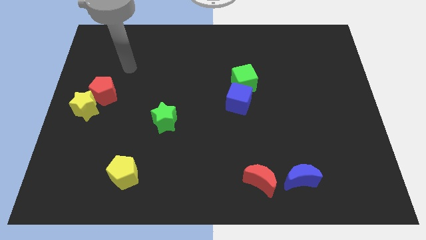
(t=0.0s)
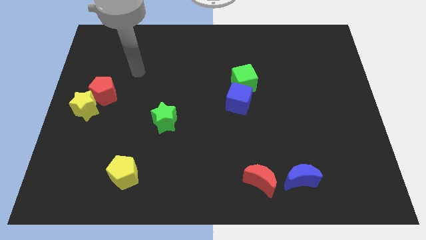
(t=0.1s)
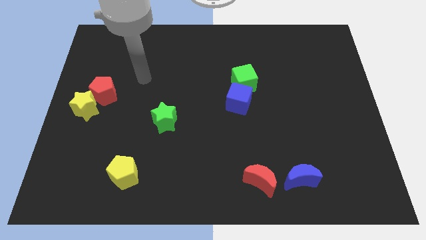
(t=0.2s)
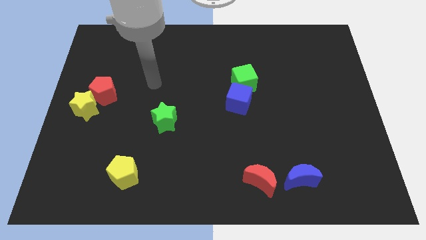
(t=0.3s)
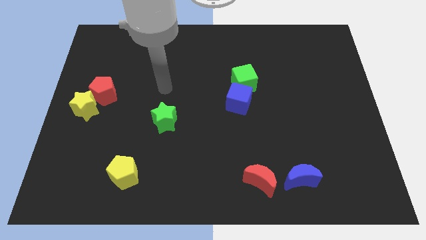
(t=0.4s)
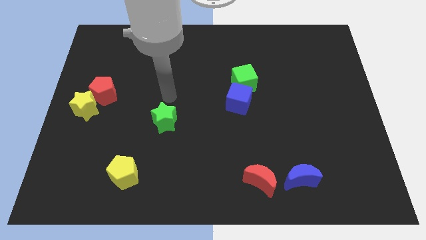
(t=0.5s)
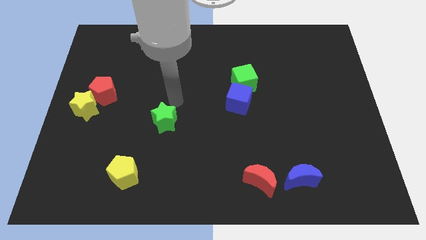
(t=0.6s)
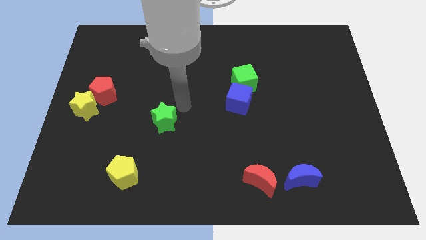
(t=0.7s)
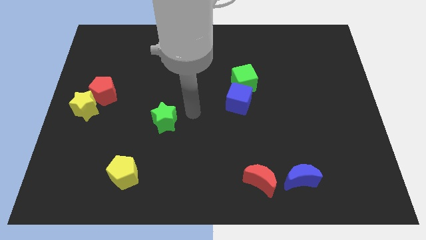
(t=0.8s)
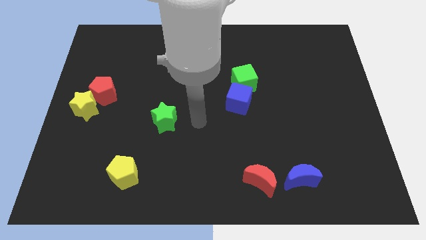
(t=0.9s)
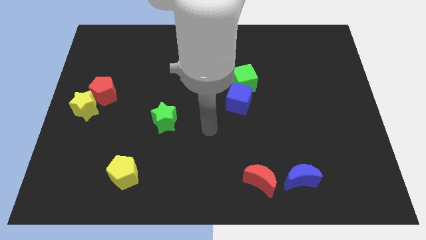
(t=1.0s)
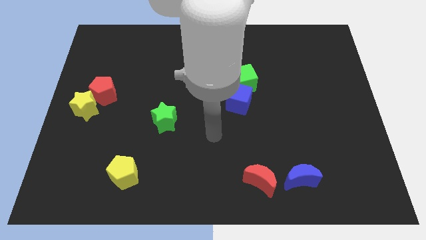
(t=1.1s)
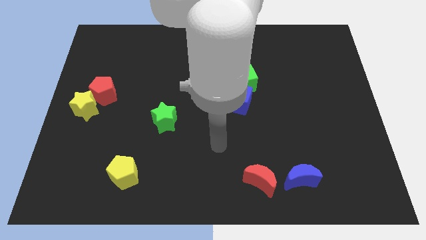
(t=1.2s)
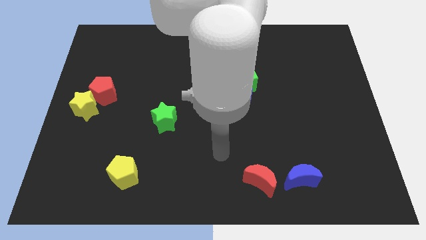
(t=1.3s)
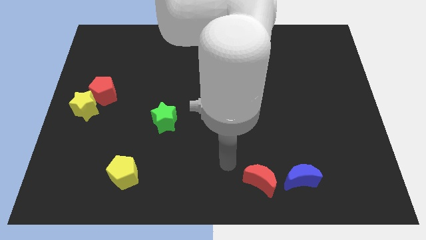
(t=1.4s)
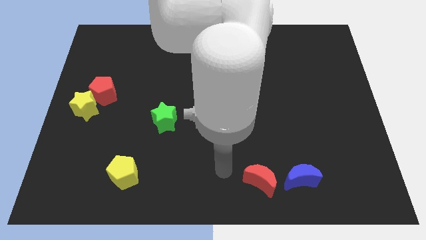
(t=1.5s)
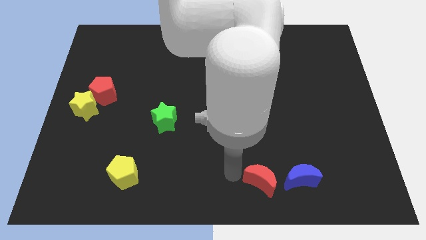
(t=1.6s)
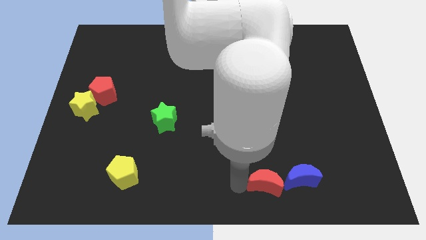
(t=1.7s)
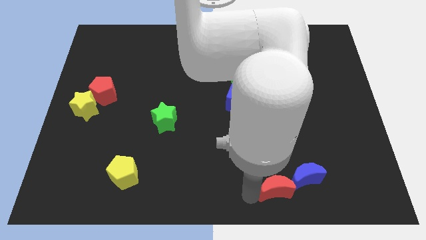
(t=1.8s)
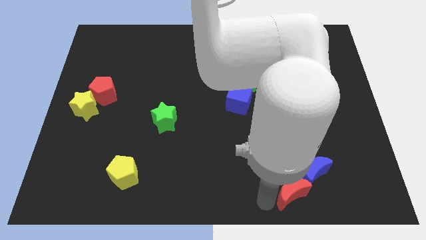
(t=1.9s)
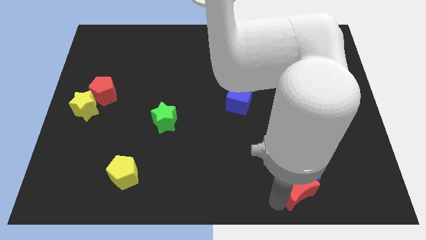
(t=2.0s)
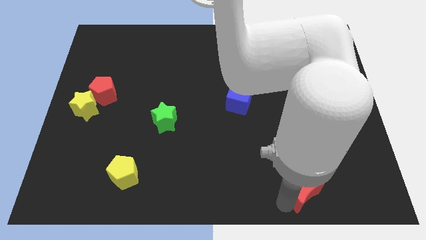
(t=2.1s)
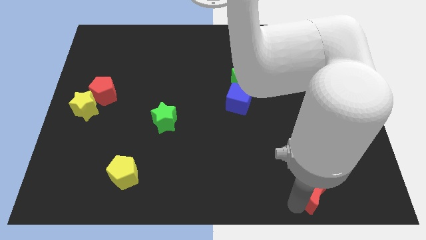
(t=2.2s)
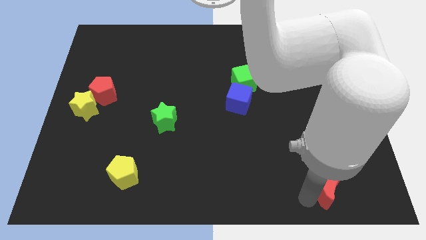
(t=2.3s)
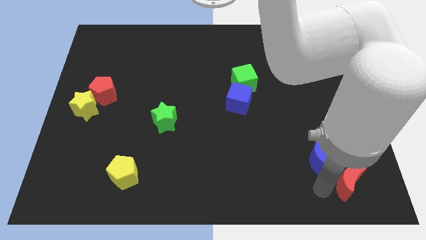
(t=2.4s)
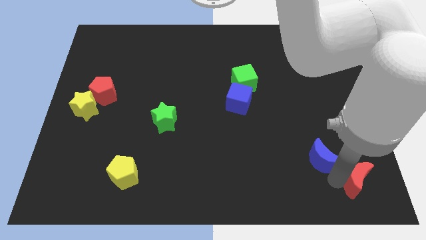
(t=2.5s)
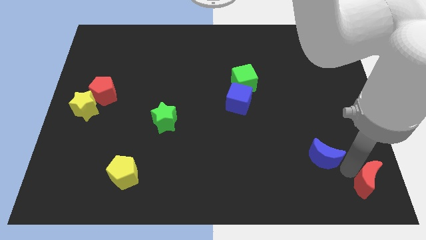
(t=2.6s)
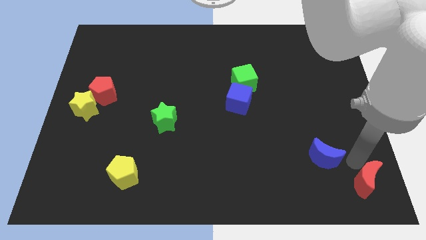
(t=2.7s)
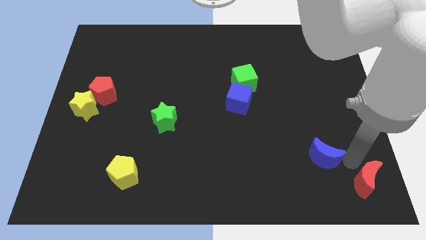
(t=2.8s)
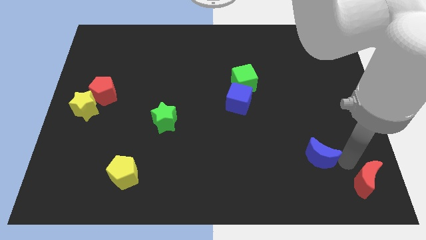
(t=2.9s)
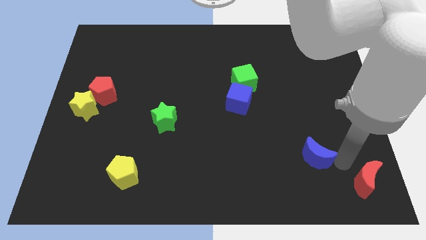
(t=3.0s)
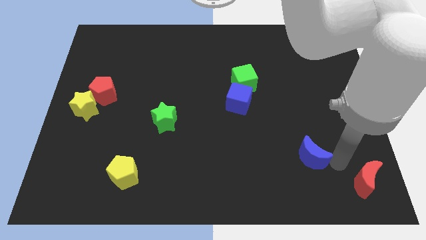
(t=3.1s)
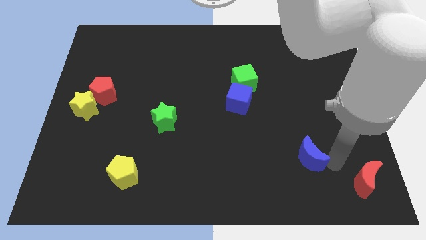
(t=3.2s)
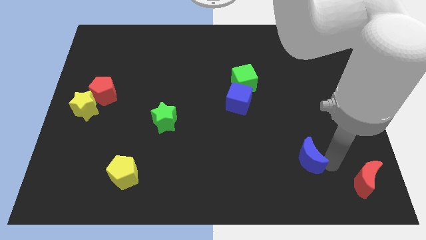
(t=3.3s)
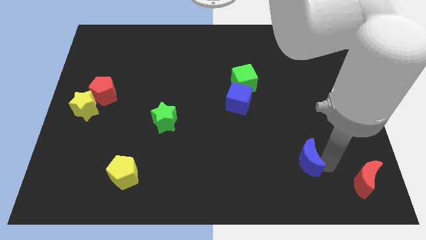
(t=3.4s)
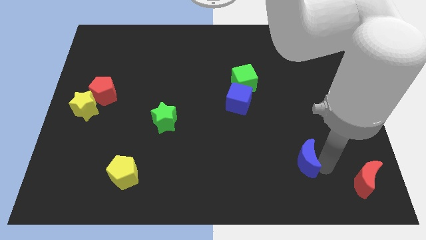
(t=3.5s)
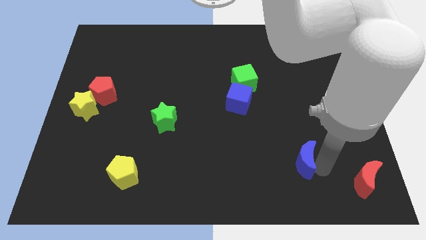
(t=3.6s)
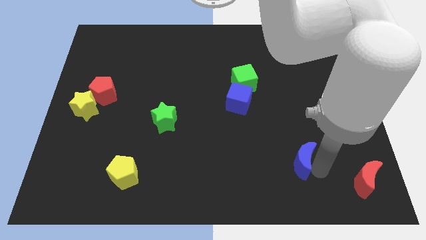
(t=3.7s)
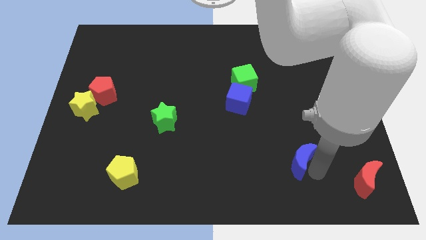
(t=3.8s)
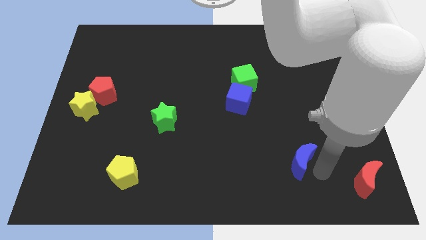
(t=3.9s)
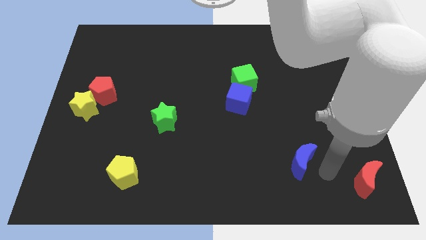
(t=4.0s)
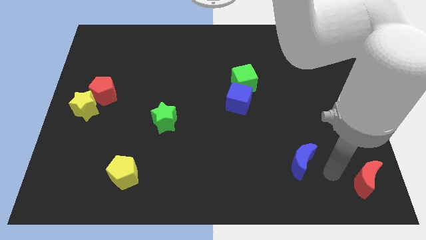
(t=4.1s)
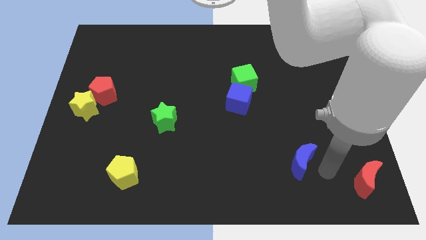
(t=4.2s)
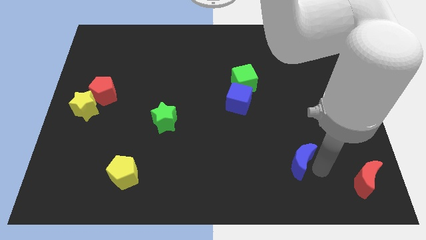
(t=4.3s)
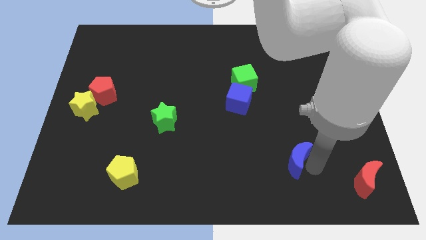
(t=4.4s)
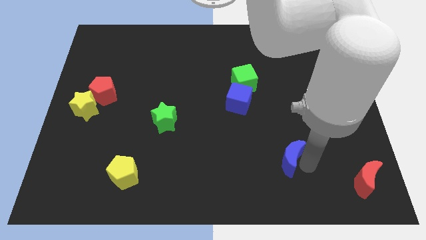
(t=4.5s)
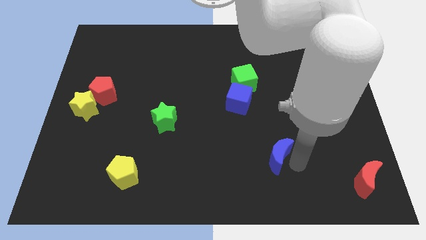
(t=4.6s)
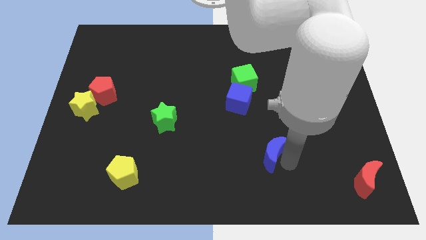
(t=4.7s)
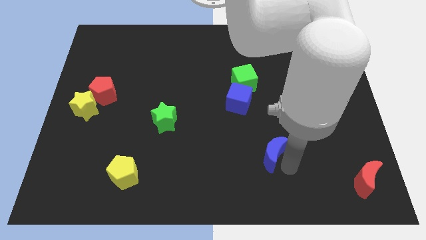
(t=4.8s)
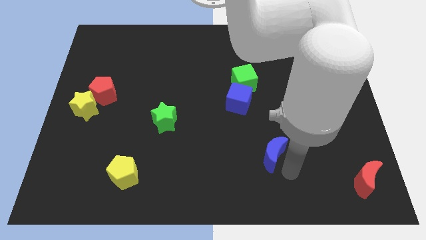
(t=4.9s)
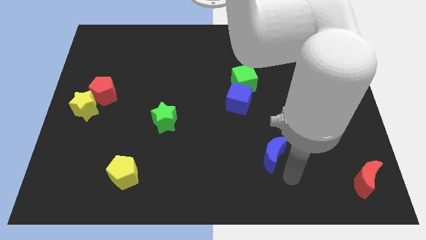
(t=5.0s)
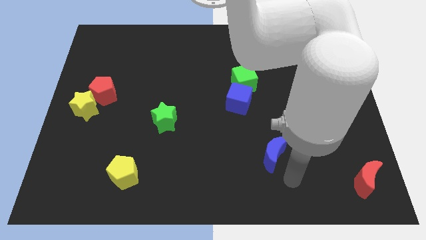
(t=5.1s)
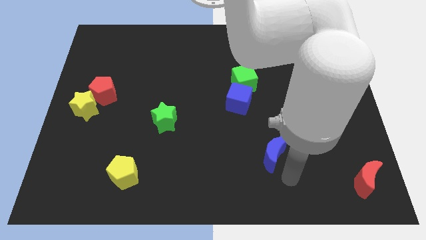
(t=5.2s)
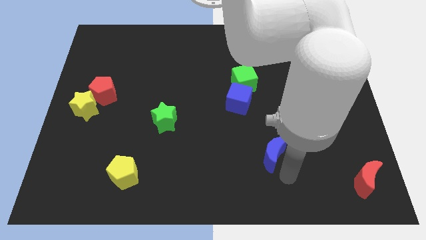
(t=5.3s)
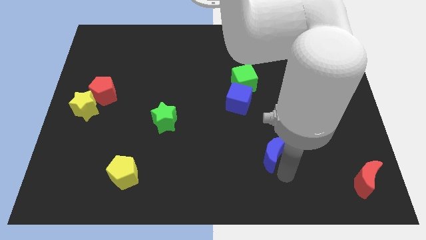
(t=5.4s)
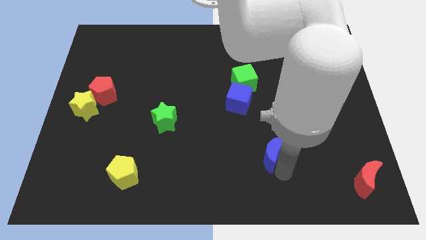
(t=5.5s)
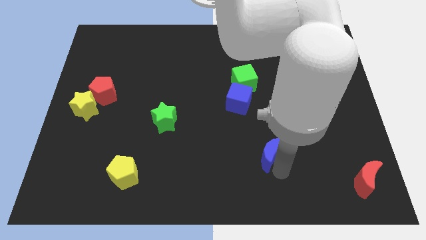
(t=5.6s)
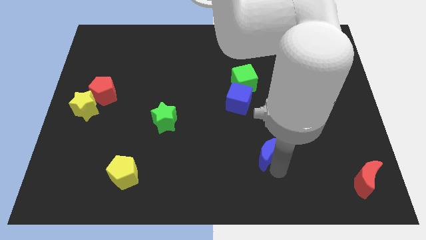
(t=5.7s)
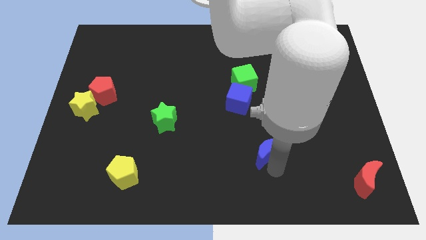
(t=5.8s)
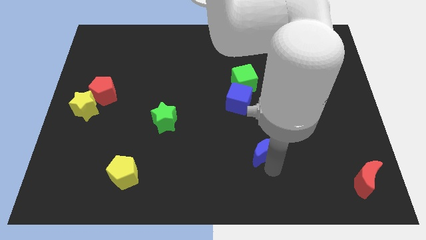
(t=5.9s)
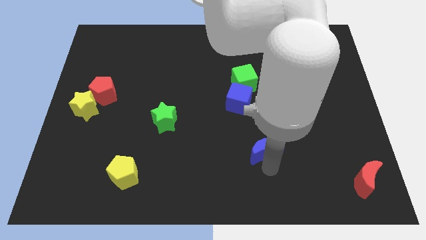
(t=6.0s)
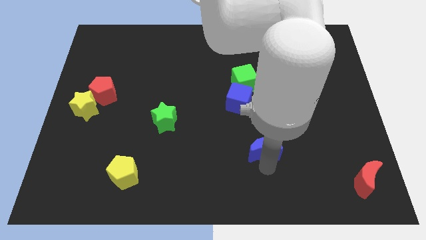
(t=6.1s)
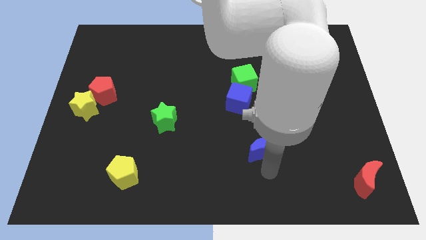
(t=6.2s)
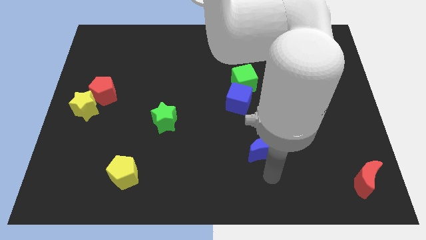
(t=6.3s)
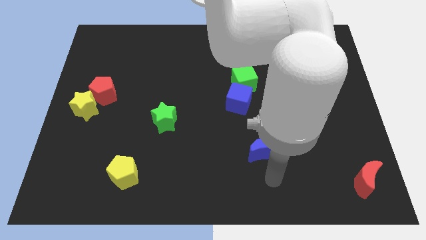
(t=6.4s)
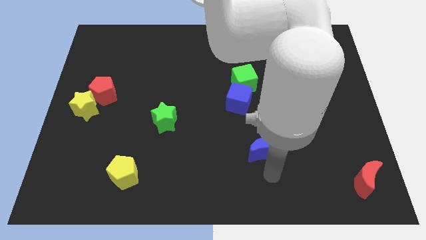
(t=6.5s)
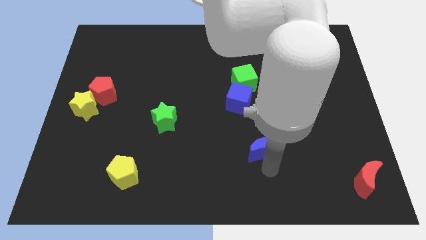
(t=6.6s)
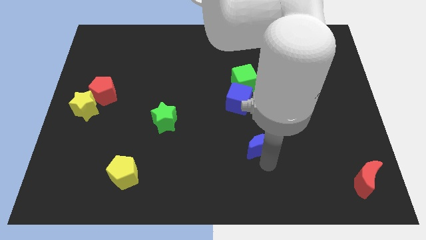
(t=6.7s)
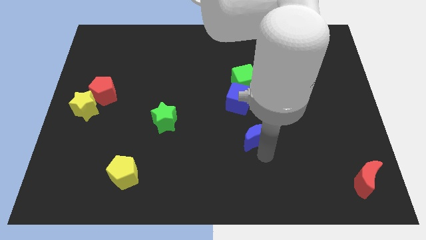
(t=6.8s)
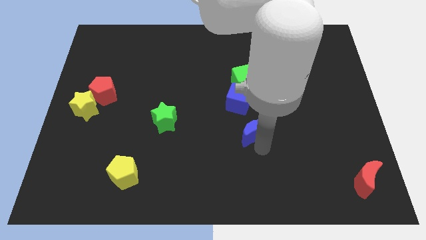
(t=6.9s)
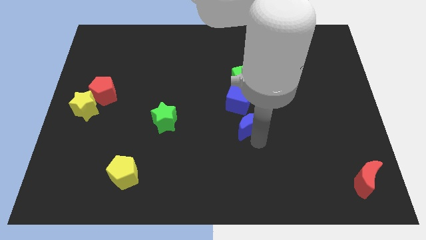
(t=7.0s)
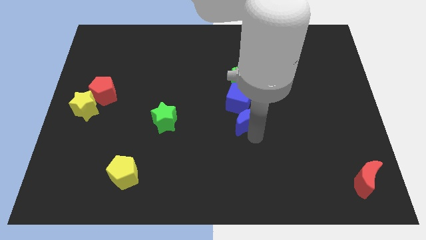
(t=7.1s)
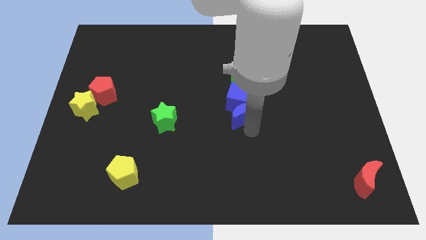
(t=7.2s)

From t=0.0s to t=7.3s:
push the blue moon to the blue cube
